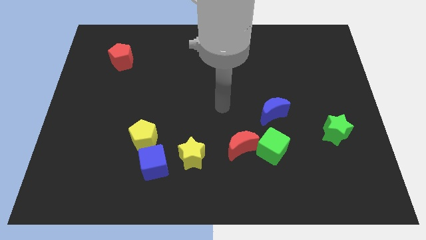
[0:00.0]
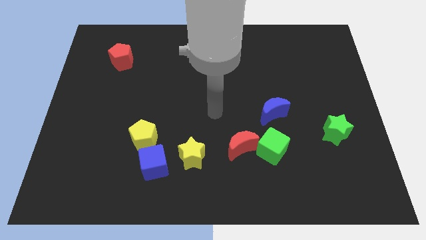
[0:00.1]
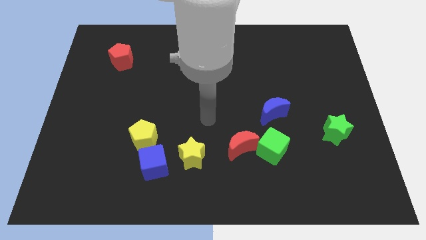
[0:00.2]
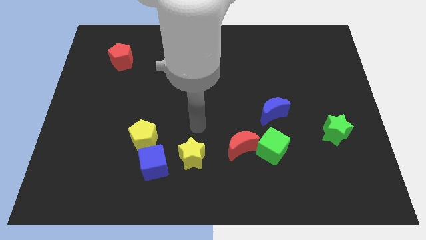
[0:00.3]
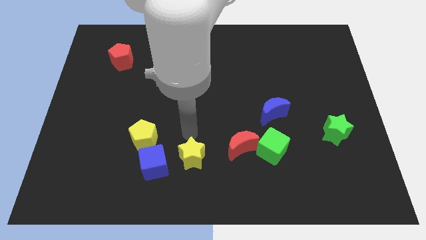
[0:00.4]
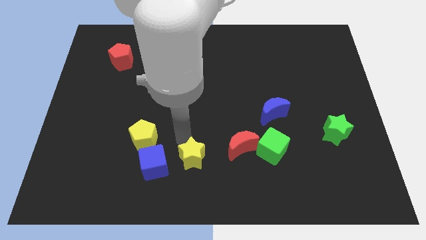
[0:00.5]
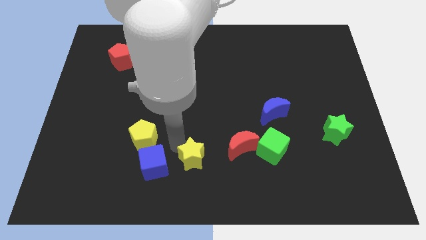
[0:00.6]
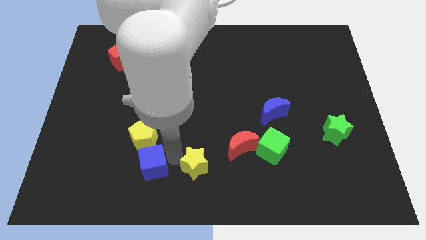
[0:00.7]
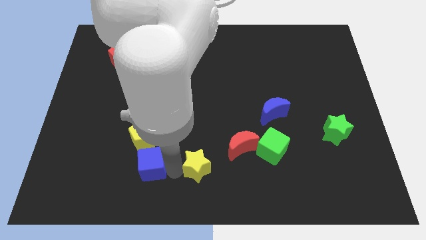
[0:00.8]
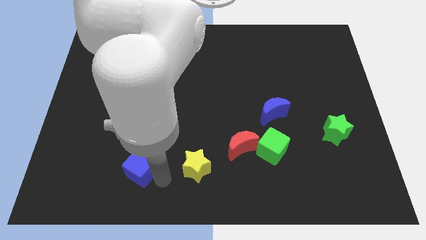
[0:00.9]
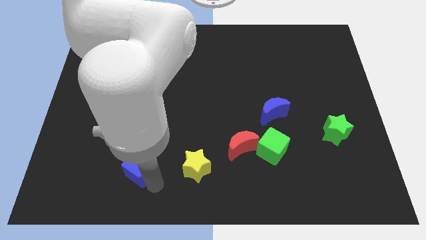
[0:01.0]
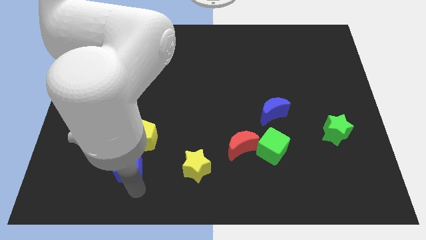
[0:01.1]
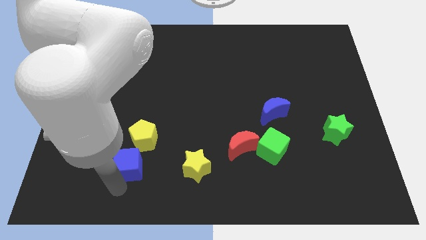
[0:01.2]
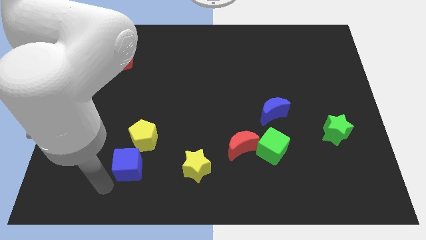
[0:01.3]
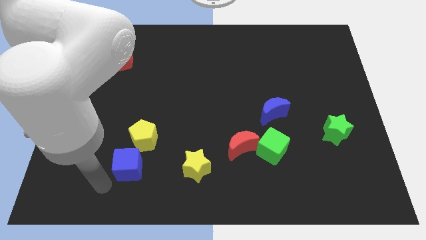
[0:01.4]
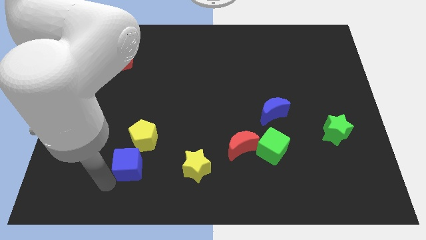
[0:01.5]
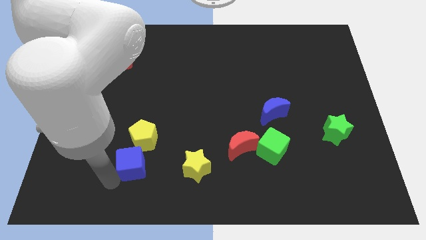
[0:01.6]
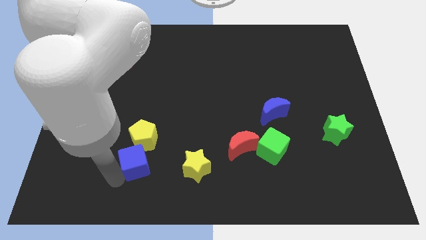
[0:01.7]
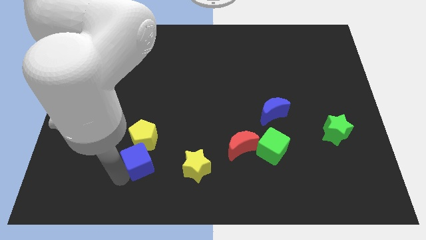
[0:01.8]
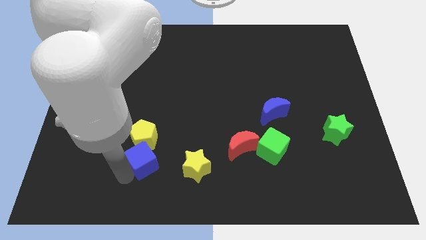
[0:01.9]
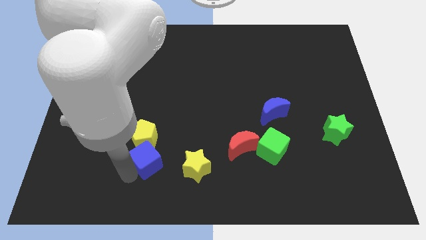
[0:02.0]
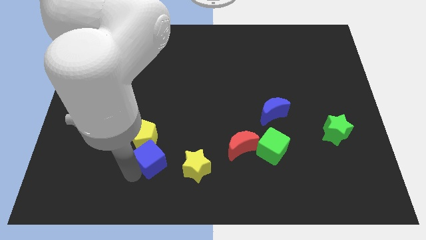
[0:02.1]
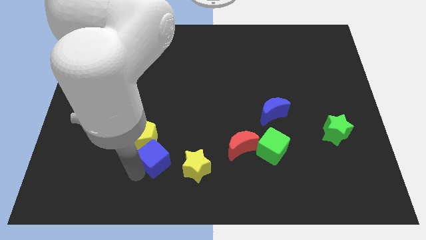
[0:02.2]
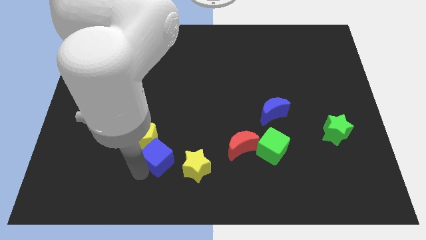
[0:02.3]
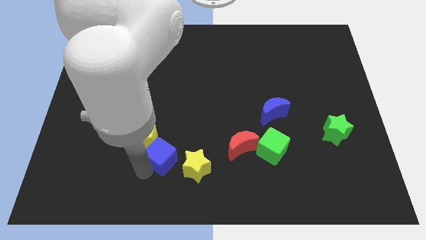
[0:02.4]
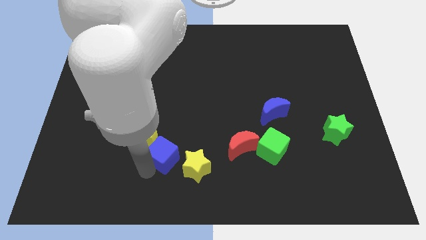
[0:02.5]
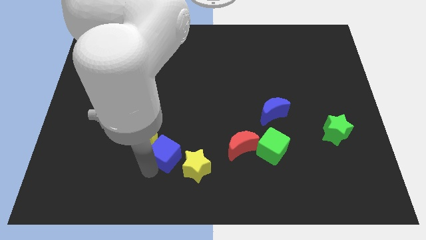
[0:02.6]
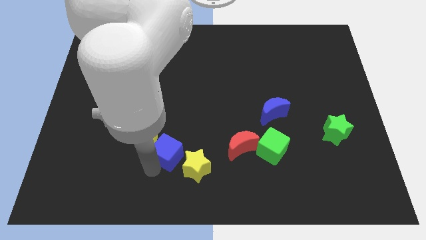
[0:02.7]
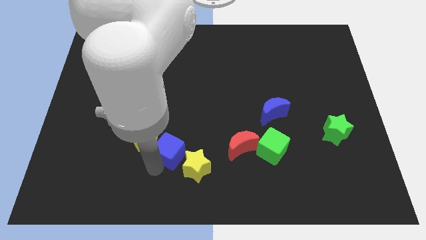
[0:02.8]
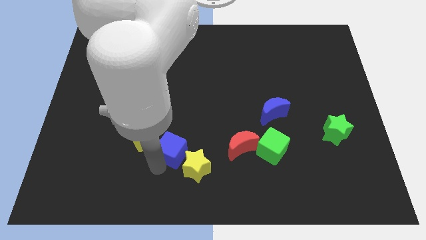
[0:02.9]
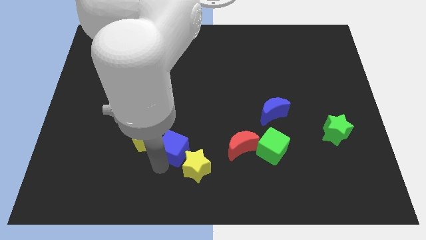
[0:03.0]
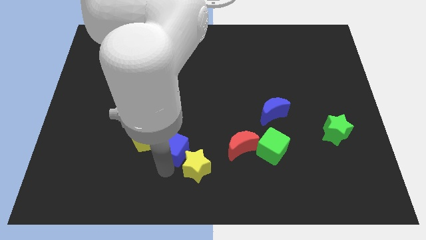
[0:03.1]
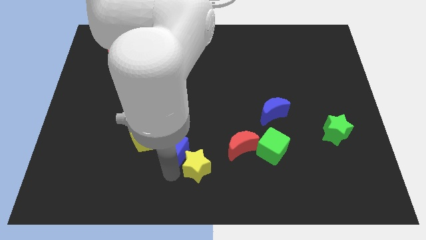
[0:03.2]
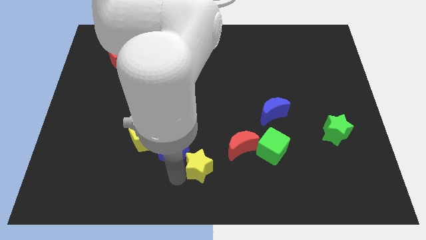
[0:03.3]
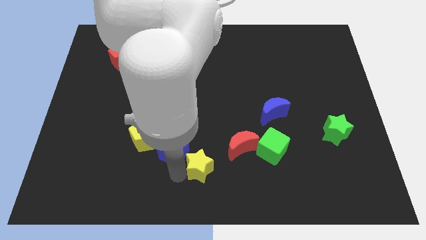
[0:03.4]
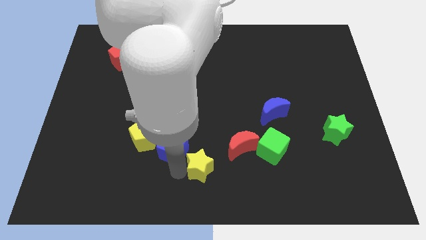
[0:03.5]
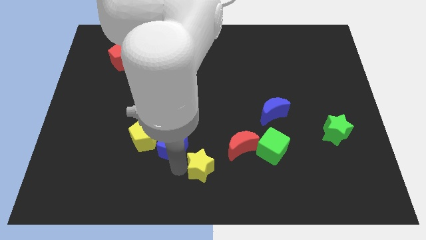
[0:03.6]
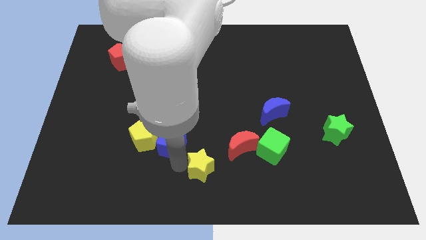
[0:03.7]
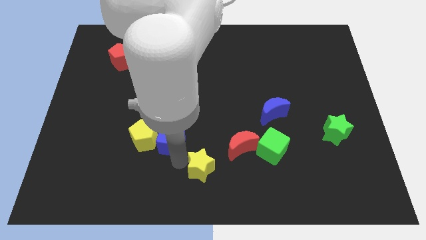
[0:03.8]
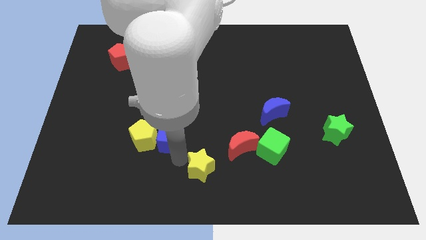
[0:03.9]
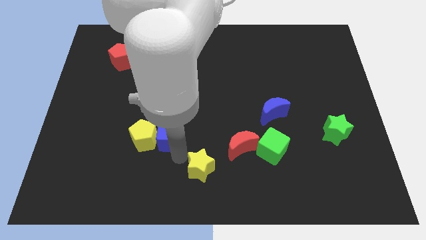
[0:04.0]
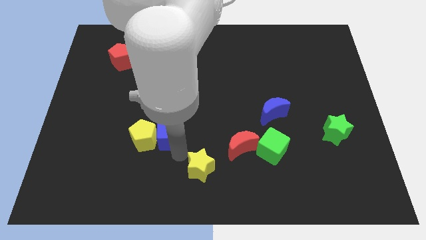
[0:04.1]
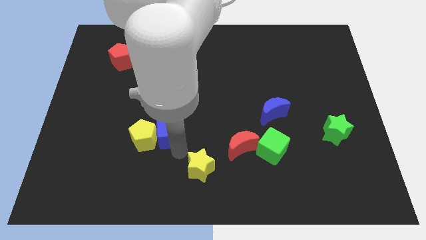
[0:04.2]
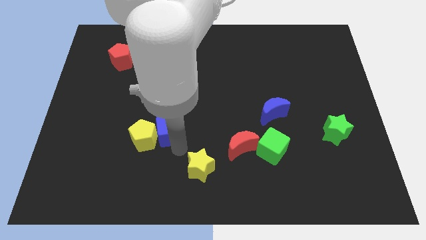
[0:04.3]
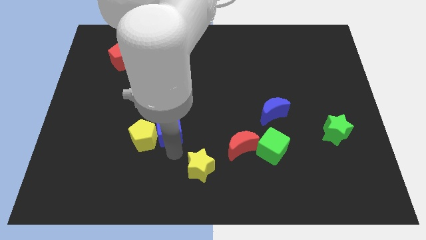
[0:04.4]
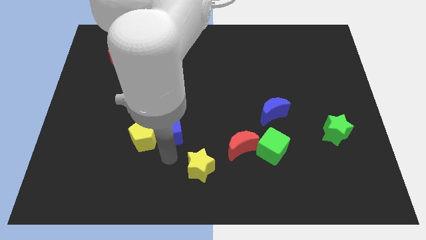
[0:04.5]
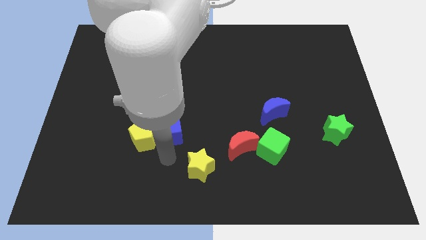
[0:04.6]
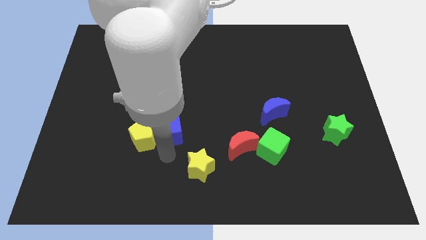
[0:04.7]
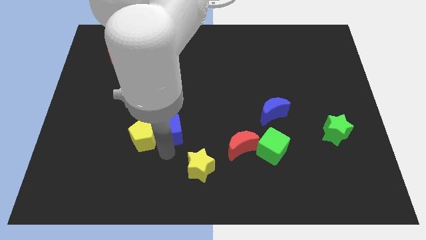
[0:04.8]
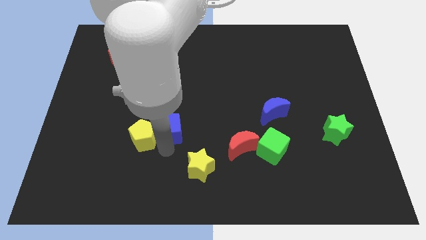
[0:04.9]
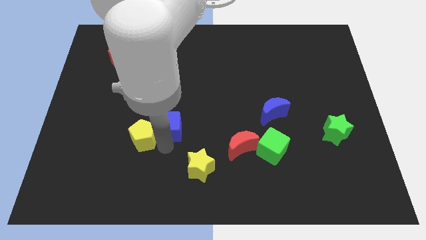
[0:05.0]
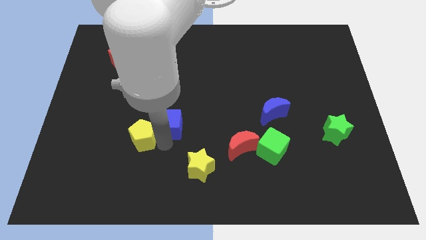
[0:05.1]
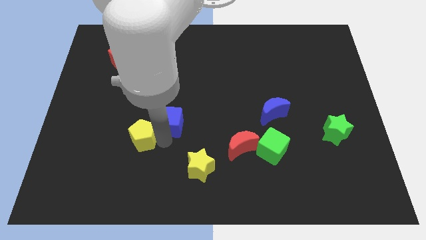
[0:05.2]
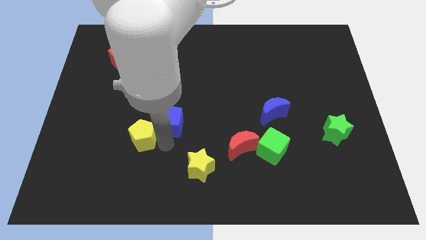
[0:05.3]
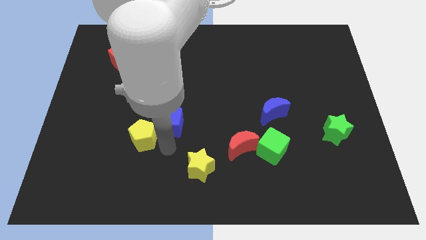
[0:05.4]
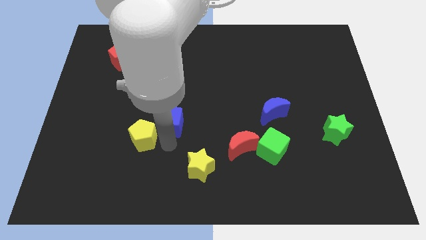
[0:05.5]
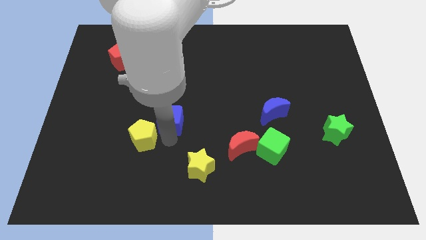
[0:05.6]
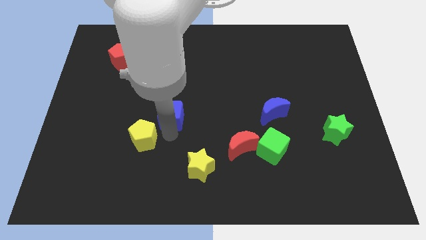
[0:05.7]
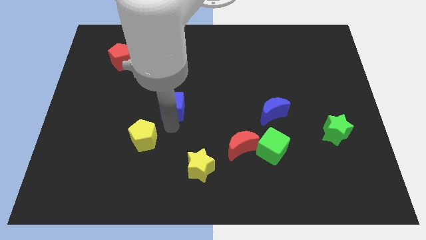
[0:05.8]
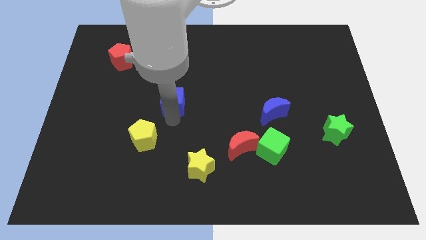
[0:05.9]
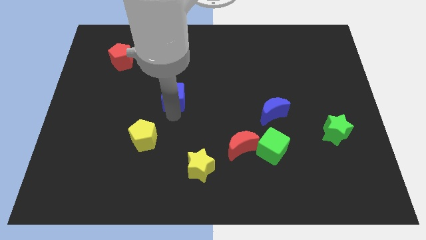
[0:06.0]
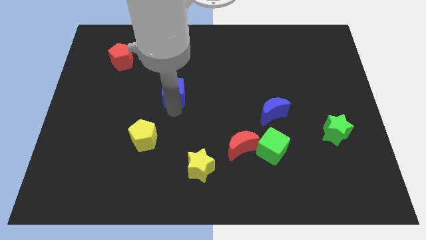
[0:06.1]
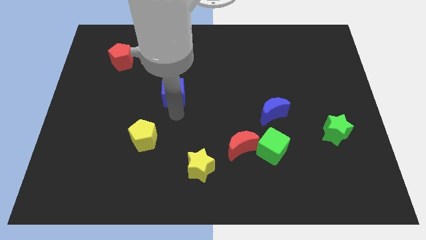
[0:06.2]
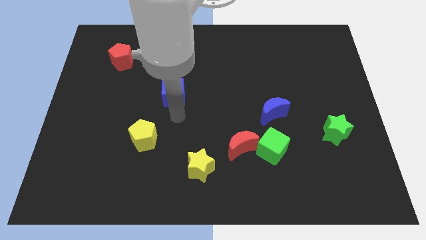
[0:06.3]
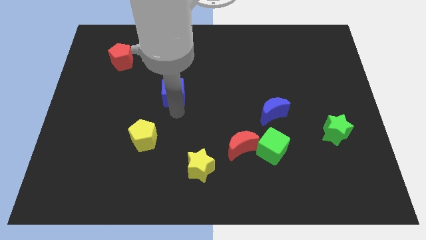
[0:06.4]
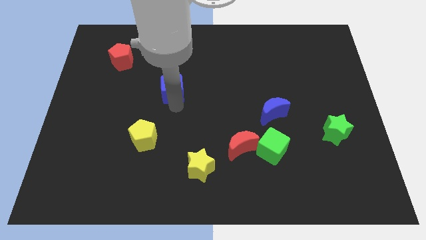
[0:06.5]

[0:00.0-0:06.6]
slide the blue cube upwards

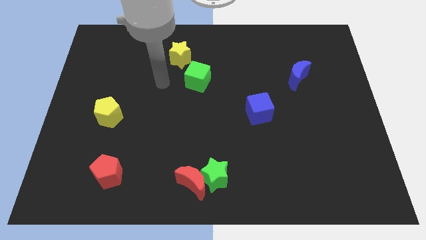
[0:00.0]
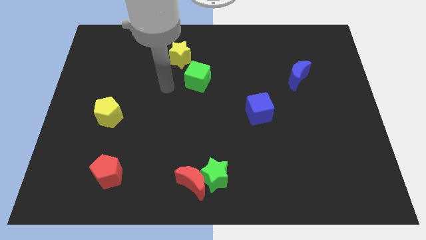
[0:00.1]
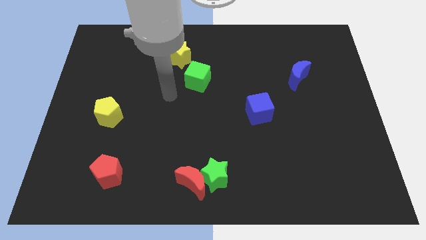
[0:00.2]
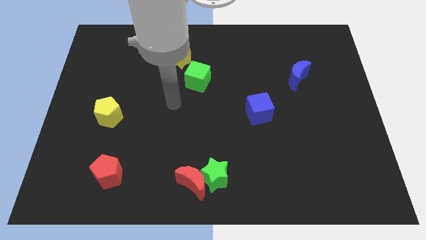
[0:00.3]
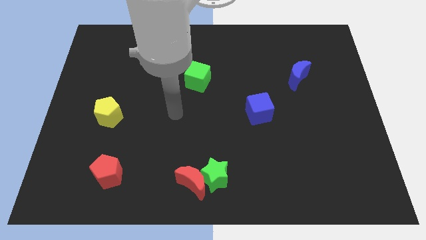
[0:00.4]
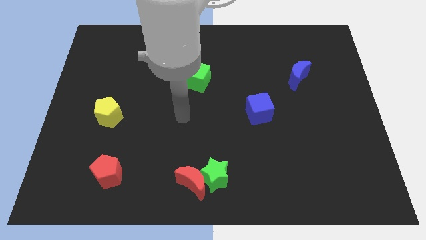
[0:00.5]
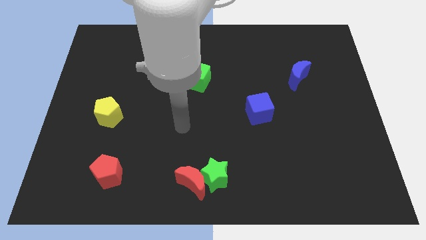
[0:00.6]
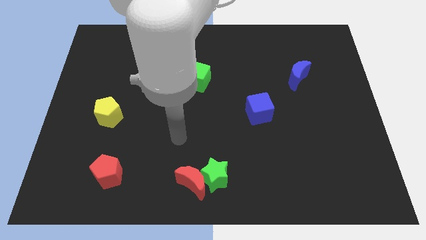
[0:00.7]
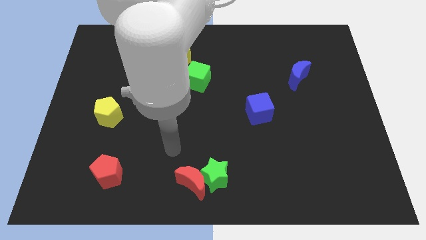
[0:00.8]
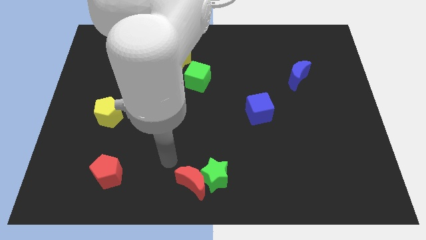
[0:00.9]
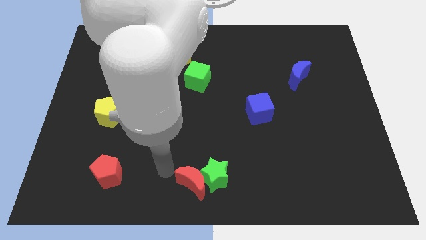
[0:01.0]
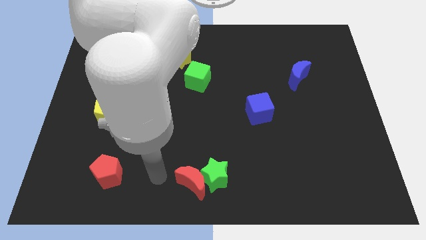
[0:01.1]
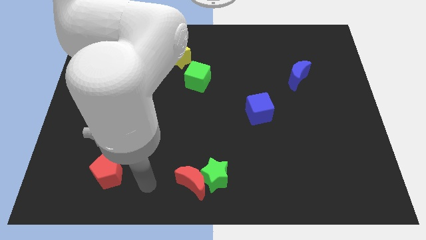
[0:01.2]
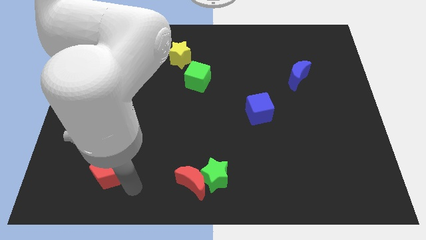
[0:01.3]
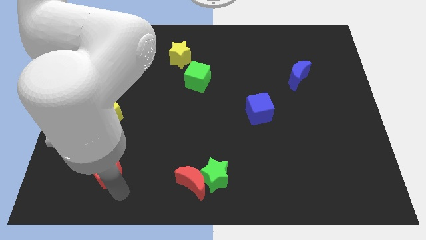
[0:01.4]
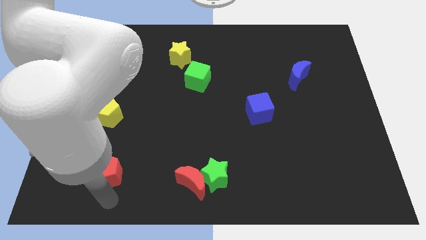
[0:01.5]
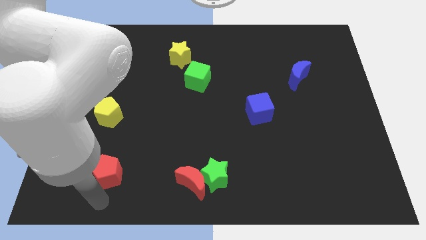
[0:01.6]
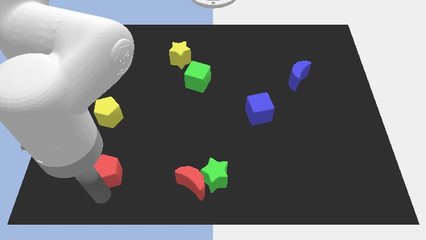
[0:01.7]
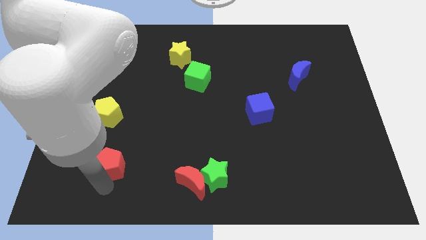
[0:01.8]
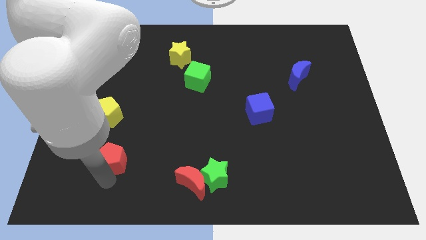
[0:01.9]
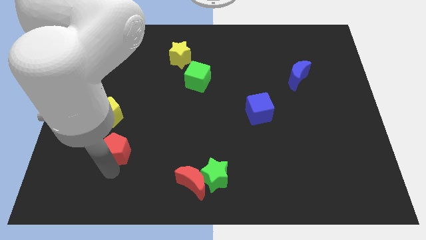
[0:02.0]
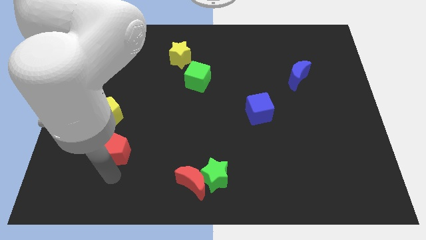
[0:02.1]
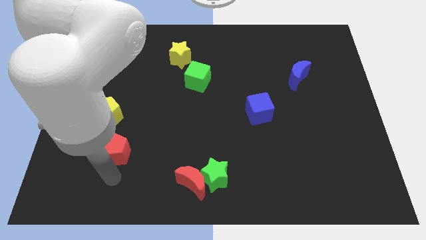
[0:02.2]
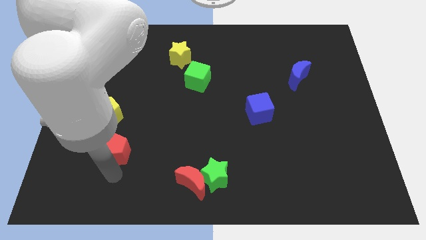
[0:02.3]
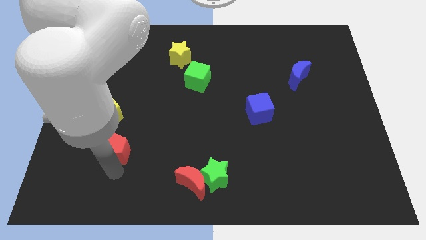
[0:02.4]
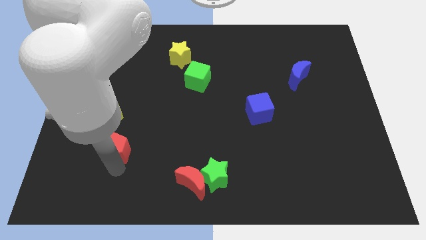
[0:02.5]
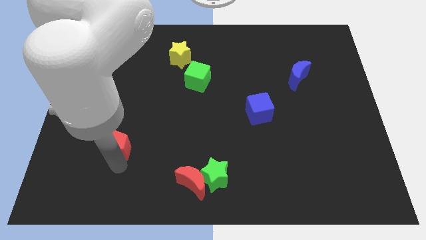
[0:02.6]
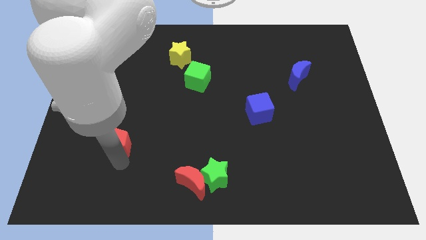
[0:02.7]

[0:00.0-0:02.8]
push the red pentagon somewhat upwards
